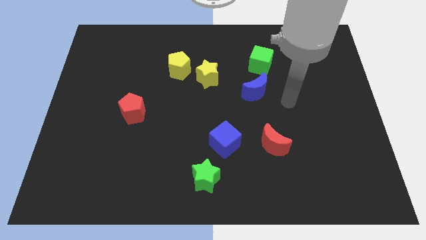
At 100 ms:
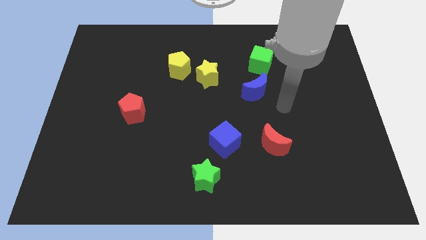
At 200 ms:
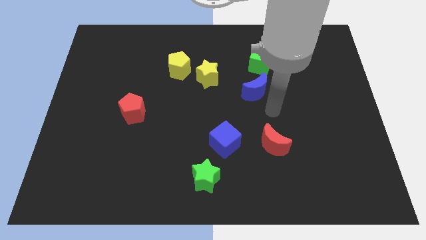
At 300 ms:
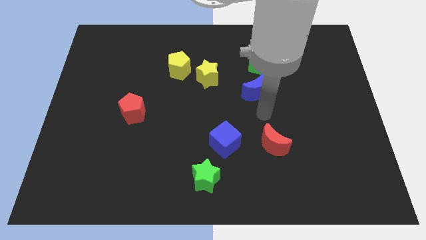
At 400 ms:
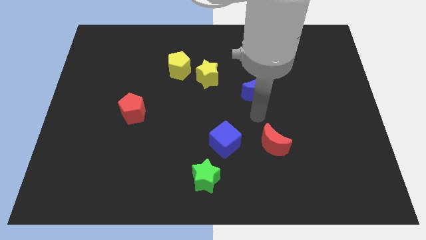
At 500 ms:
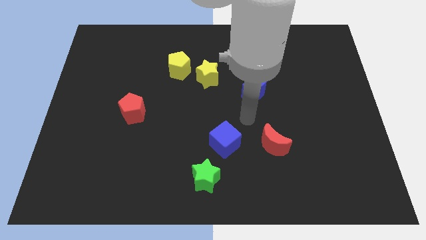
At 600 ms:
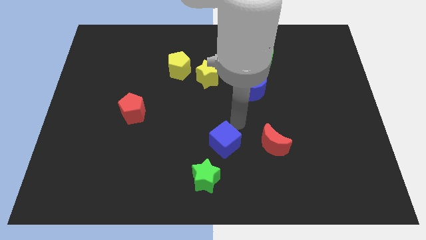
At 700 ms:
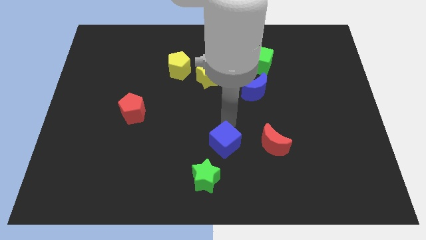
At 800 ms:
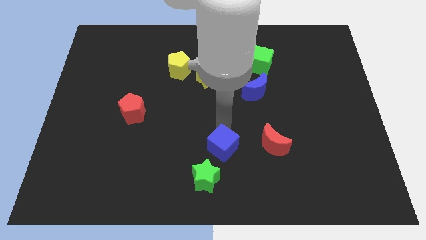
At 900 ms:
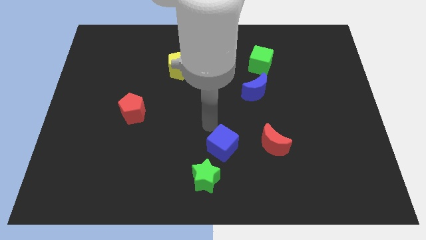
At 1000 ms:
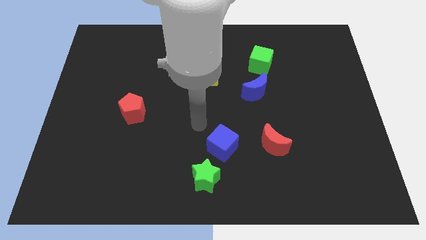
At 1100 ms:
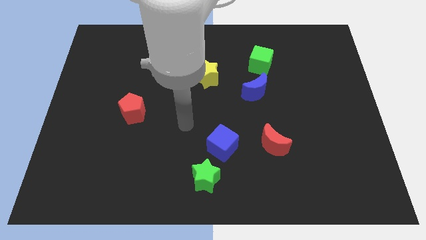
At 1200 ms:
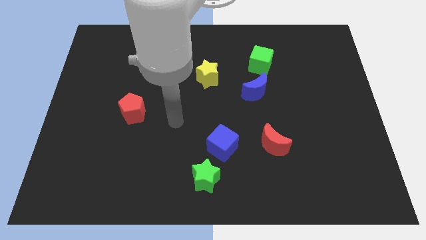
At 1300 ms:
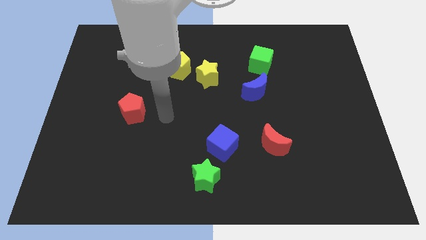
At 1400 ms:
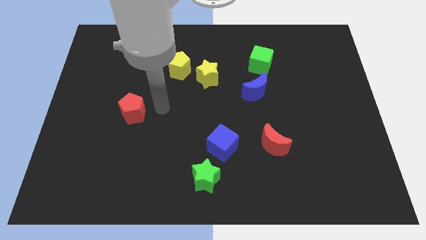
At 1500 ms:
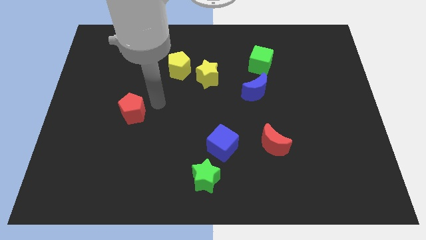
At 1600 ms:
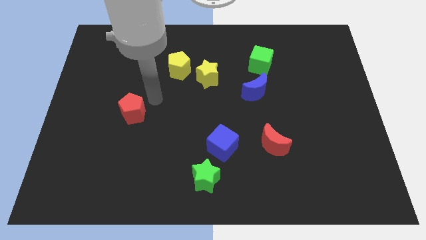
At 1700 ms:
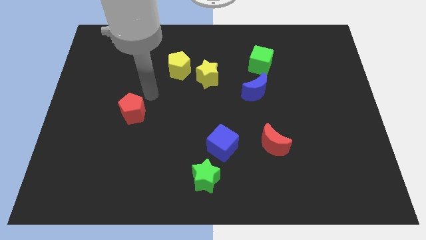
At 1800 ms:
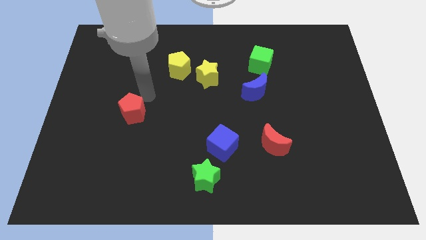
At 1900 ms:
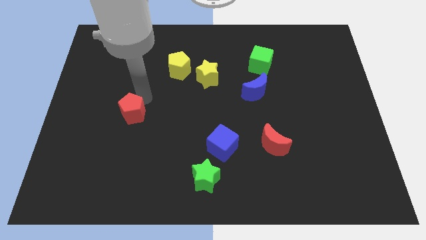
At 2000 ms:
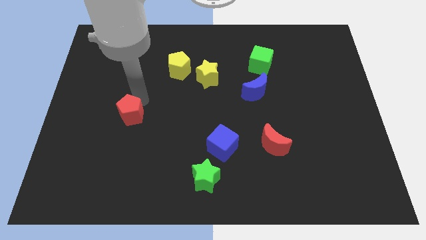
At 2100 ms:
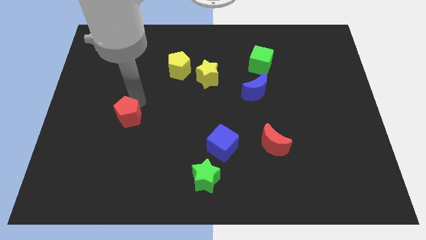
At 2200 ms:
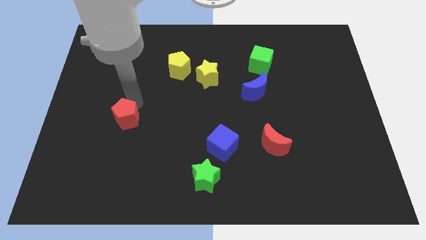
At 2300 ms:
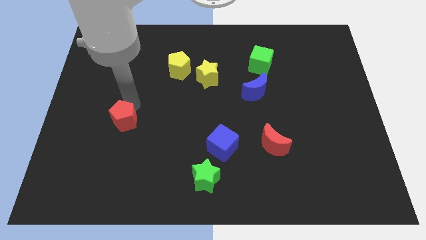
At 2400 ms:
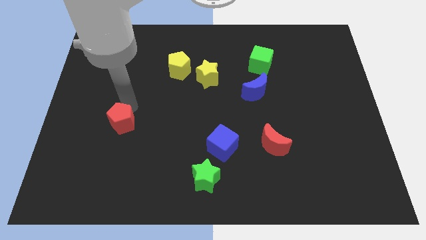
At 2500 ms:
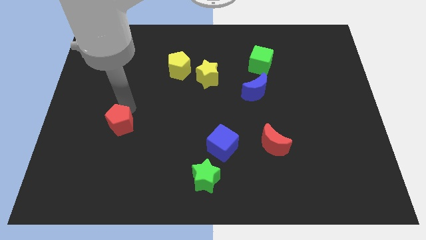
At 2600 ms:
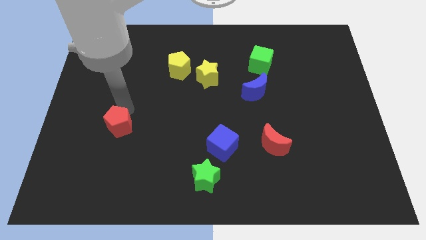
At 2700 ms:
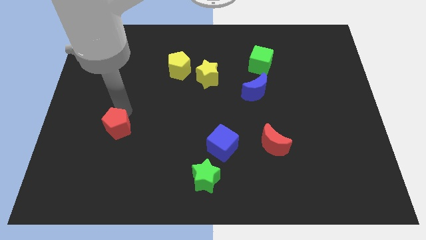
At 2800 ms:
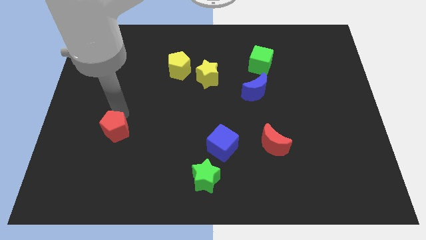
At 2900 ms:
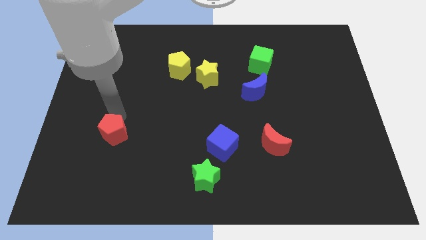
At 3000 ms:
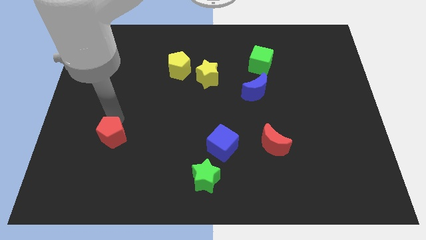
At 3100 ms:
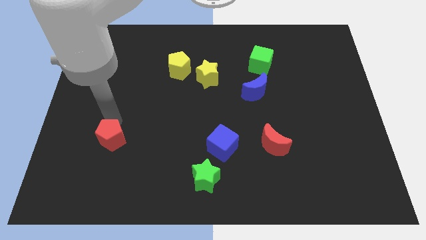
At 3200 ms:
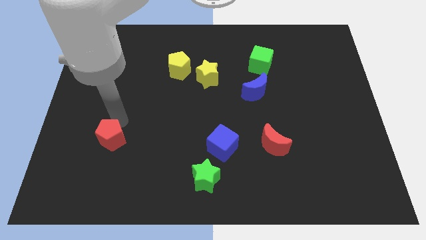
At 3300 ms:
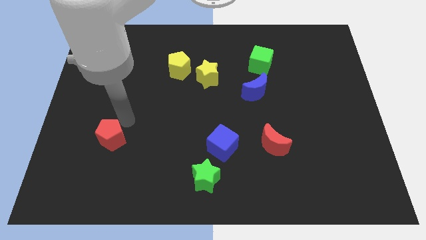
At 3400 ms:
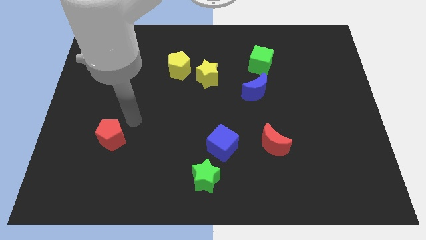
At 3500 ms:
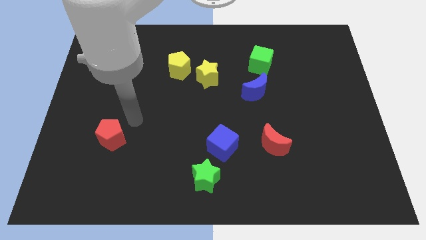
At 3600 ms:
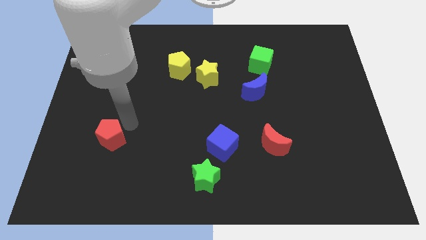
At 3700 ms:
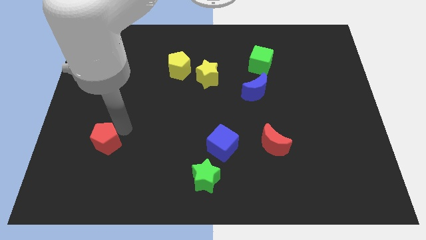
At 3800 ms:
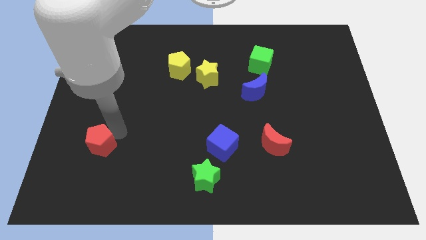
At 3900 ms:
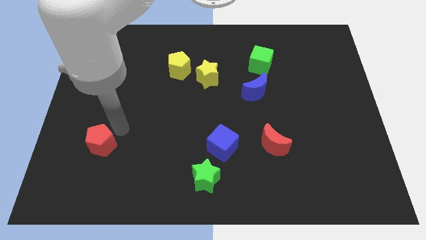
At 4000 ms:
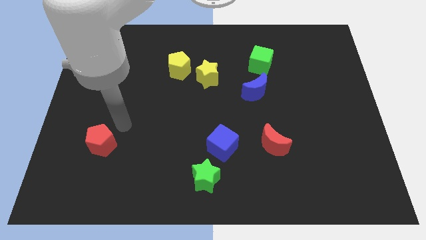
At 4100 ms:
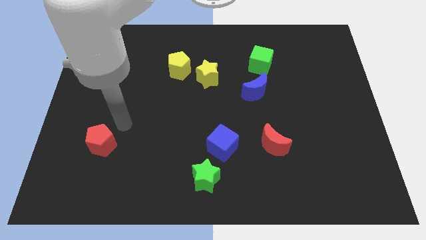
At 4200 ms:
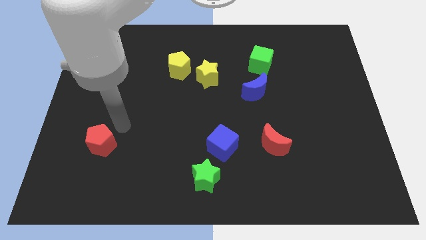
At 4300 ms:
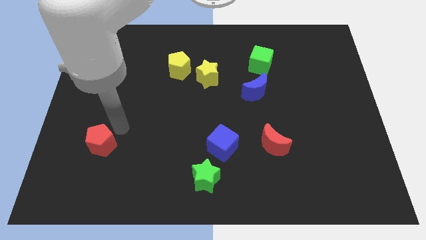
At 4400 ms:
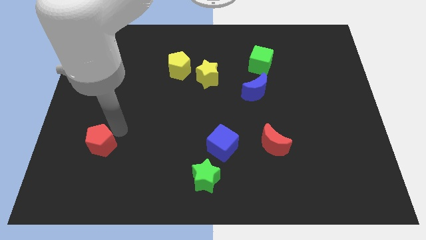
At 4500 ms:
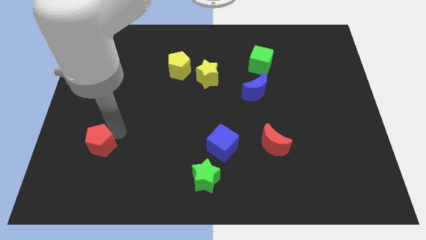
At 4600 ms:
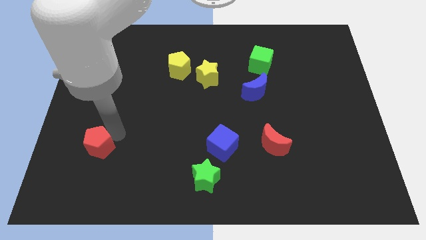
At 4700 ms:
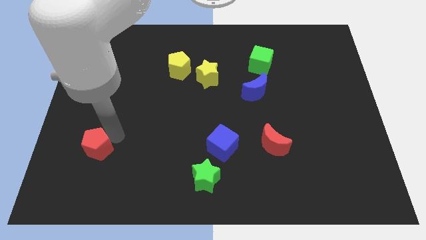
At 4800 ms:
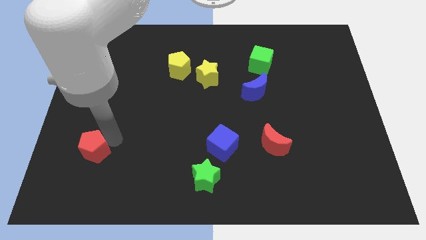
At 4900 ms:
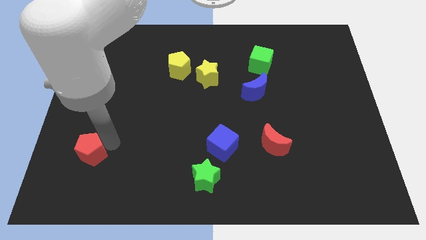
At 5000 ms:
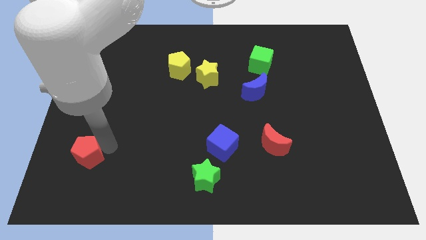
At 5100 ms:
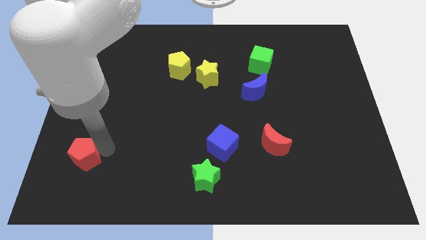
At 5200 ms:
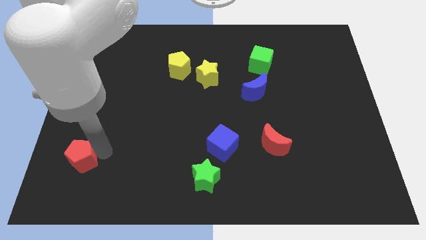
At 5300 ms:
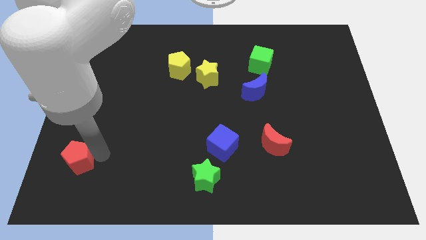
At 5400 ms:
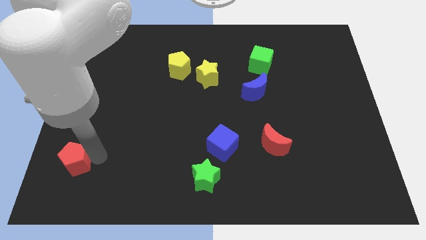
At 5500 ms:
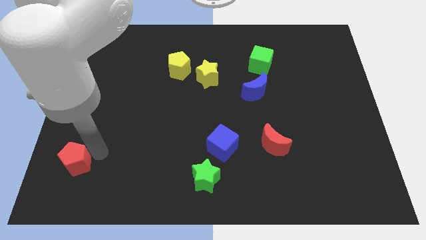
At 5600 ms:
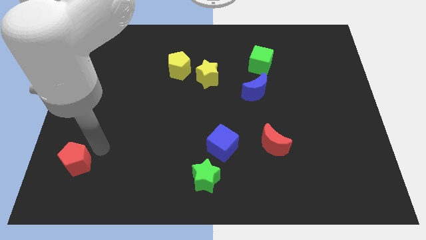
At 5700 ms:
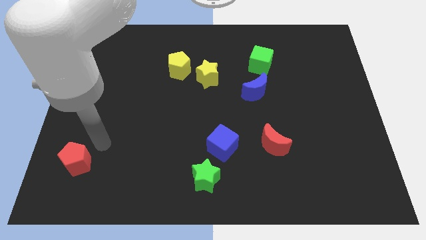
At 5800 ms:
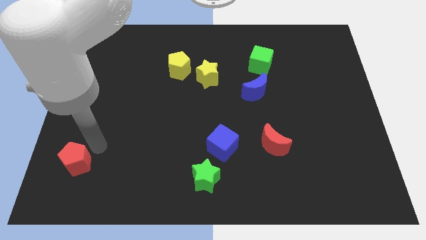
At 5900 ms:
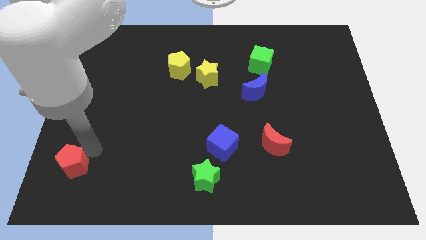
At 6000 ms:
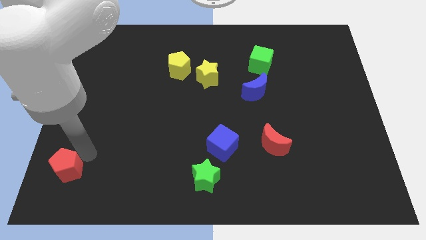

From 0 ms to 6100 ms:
put the red pentagon to the lower left corner

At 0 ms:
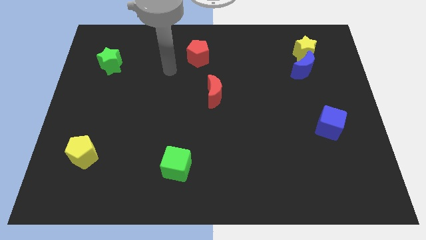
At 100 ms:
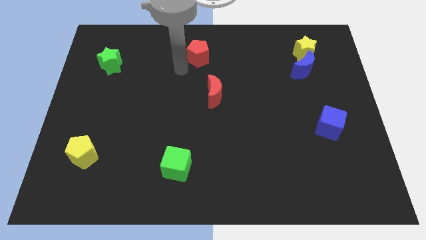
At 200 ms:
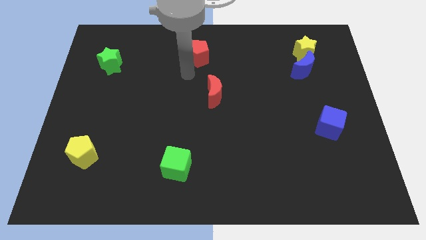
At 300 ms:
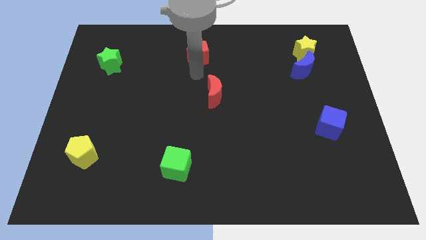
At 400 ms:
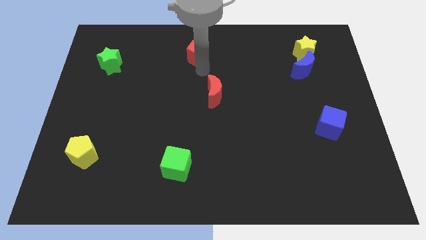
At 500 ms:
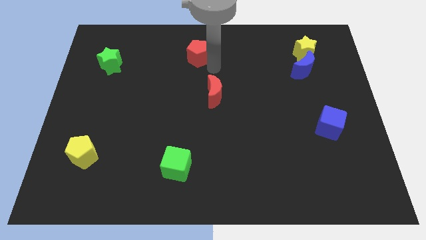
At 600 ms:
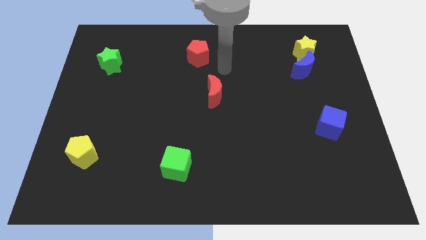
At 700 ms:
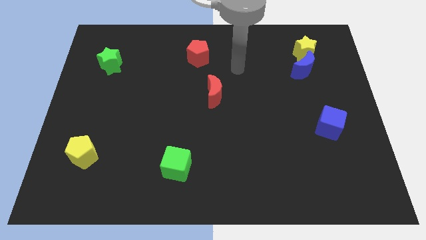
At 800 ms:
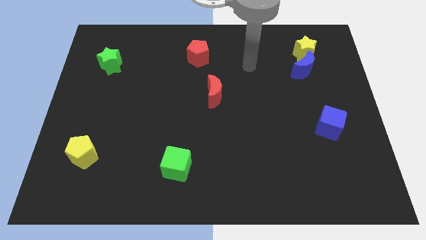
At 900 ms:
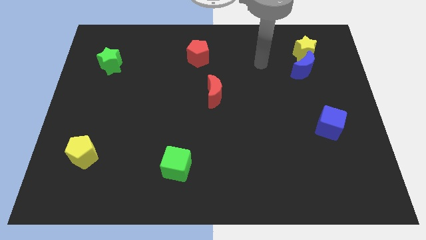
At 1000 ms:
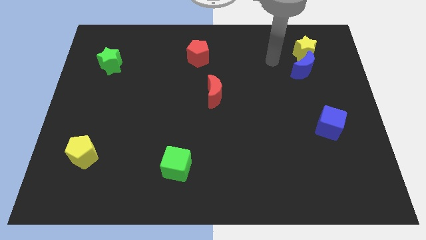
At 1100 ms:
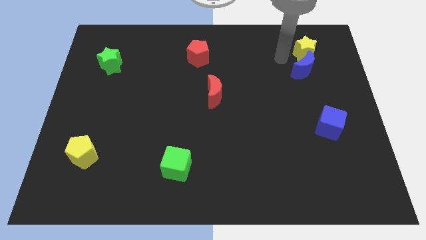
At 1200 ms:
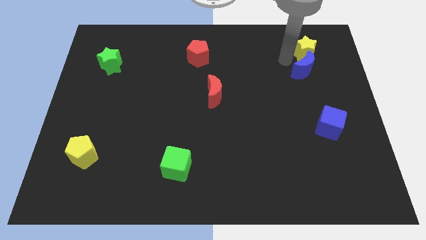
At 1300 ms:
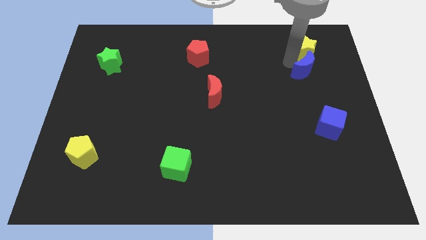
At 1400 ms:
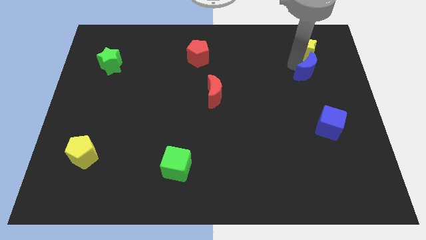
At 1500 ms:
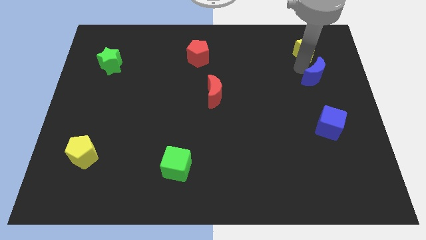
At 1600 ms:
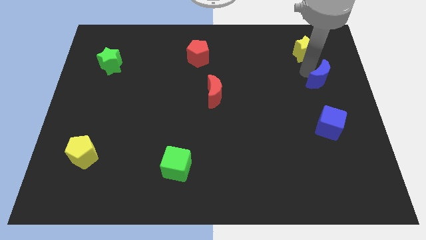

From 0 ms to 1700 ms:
move the blue moon to the center right
